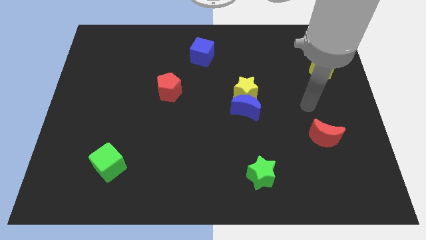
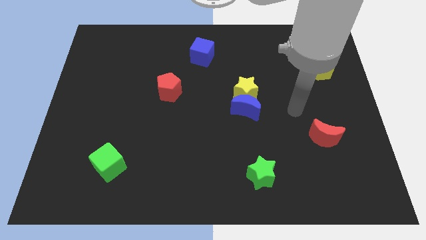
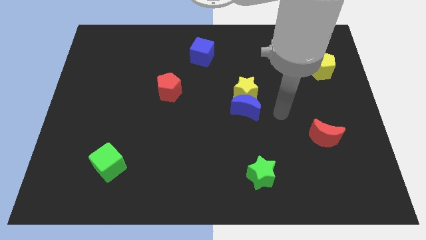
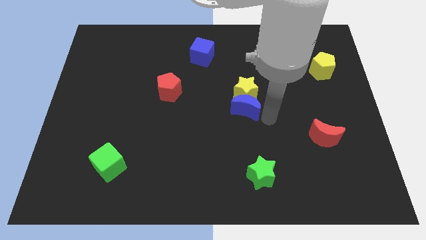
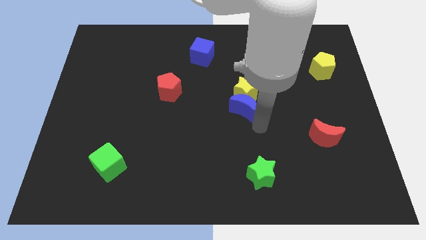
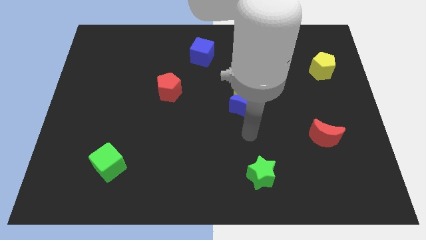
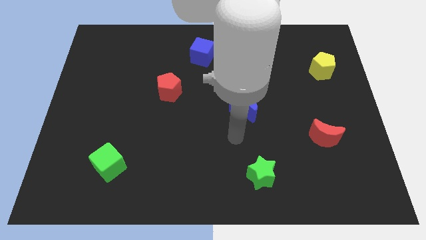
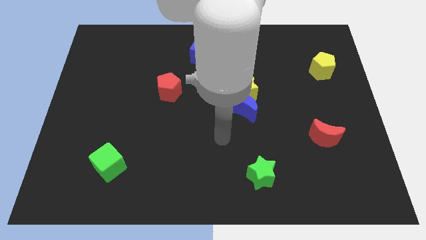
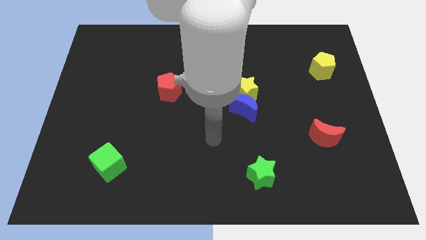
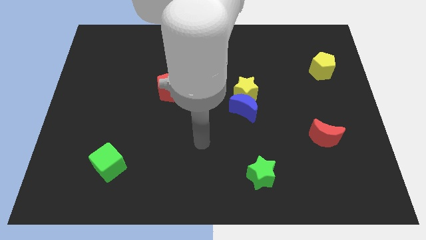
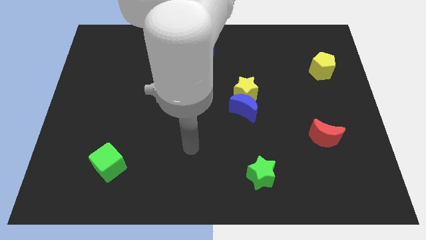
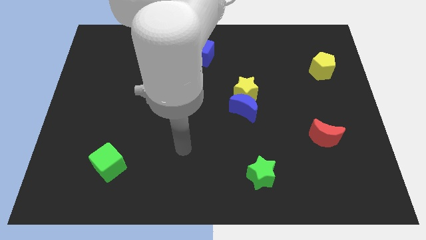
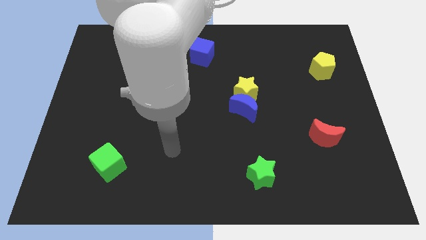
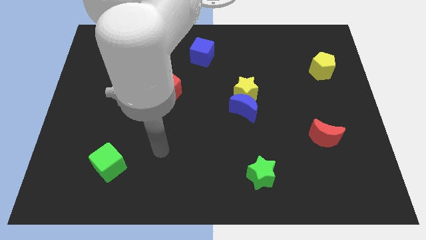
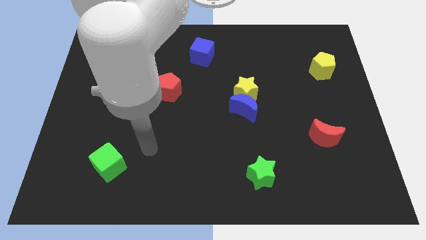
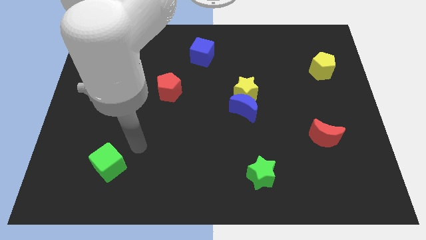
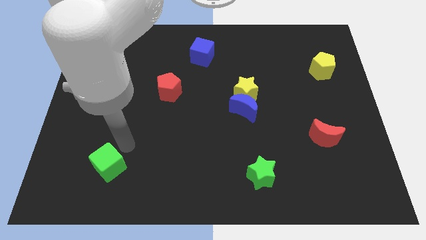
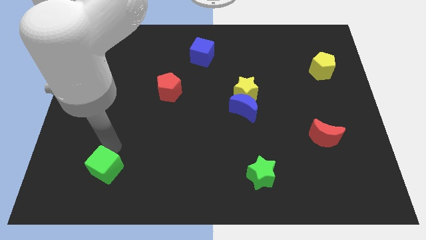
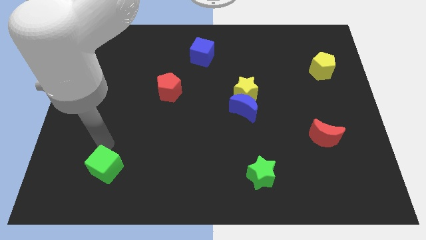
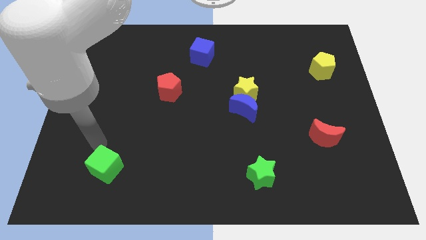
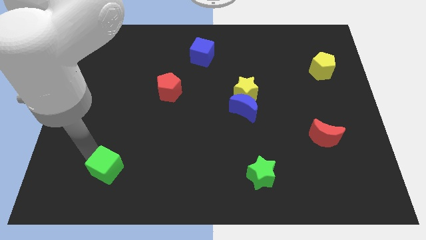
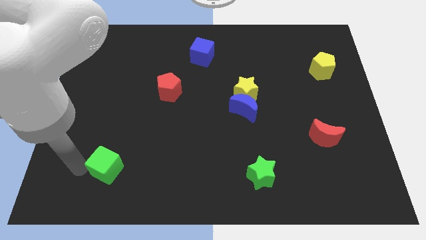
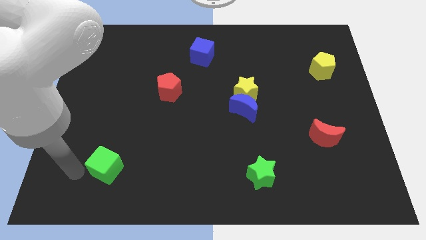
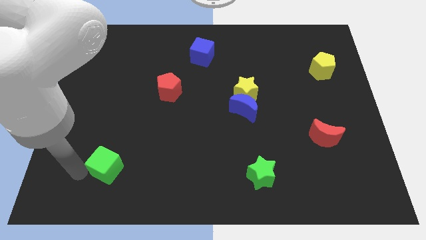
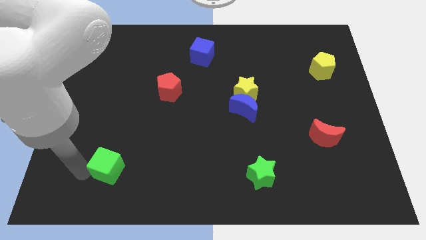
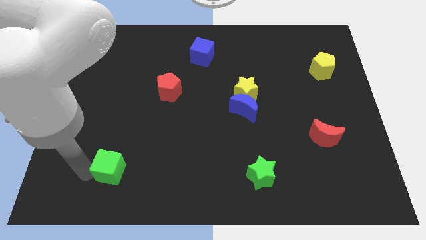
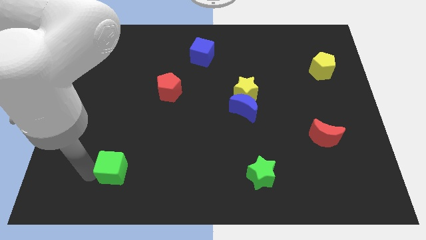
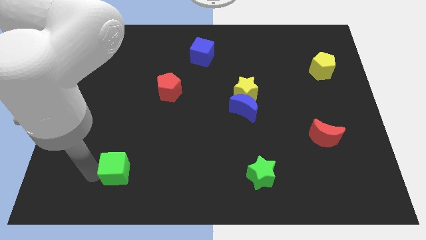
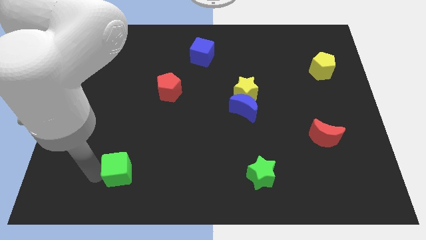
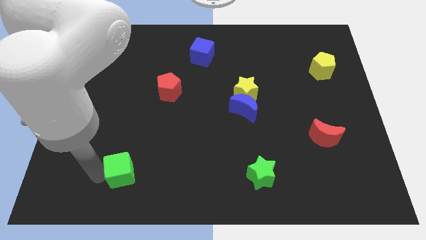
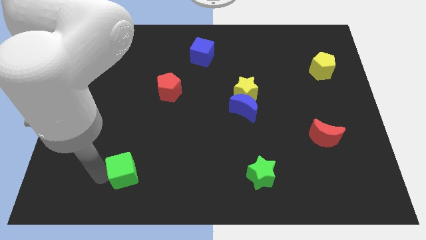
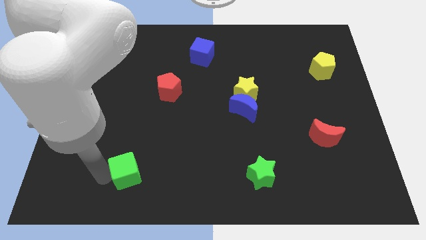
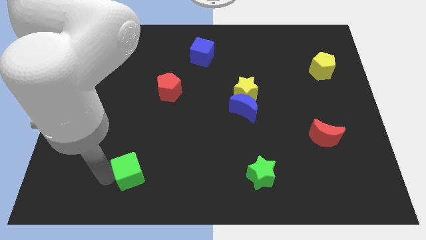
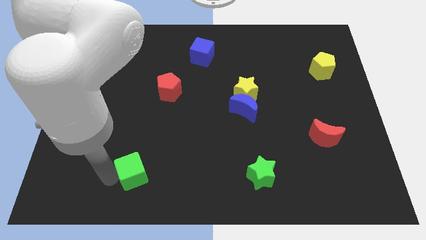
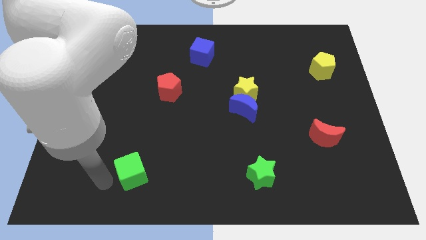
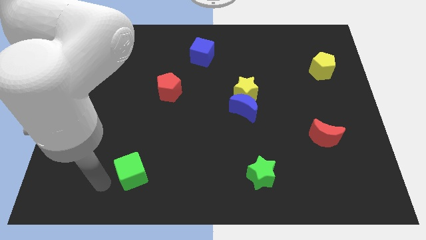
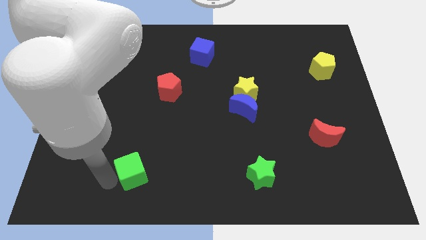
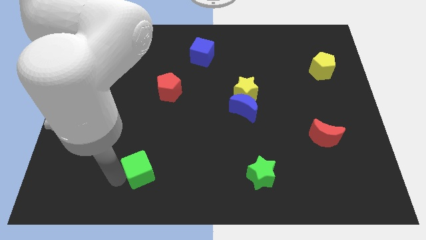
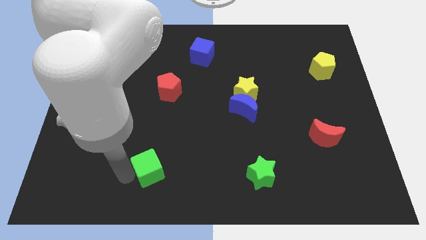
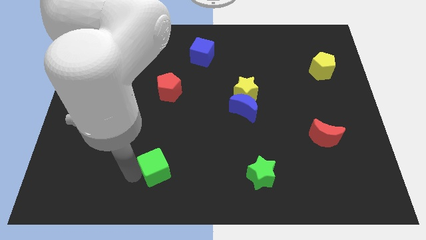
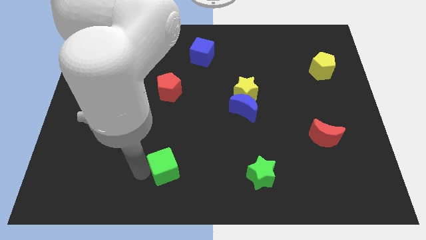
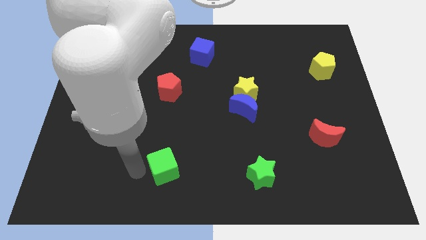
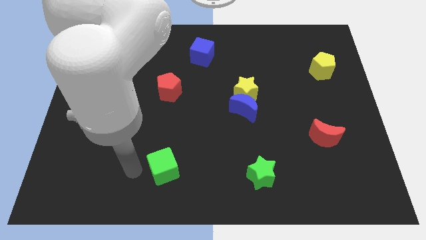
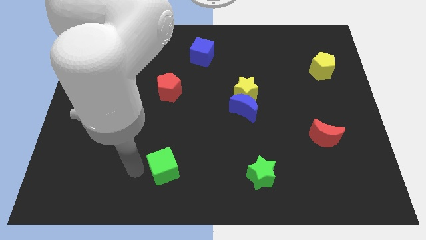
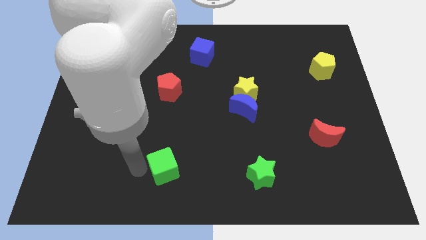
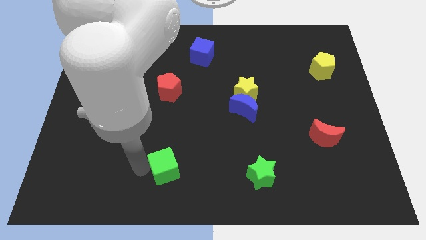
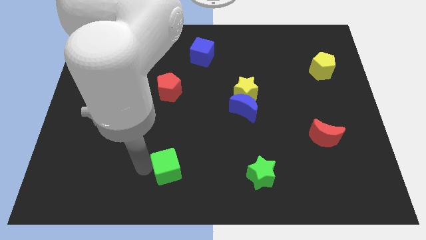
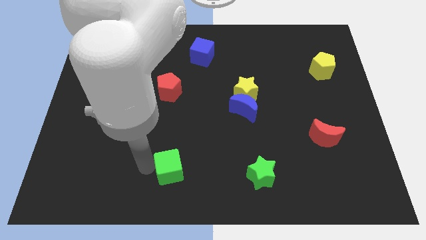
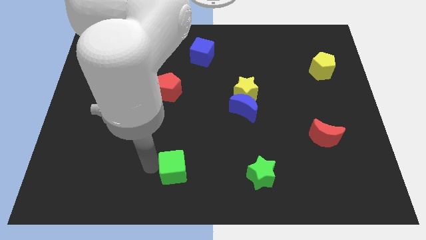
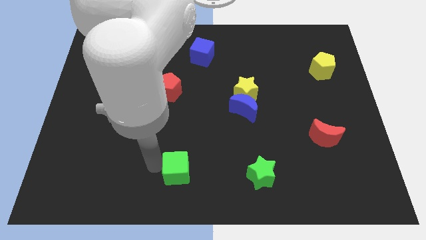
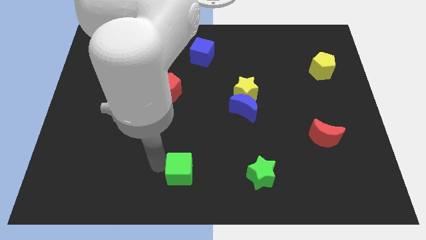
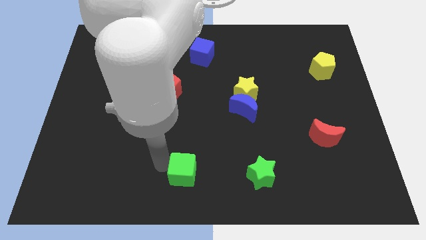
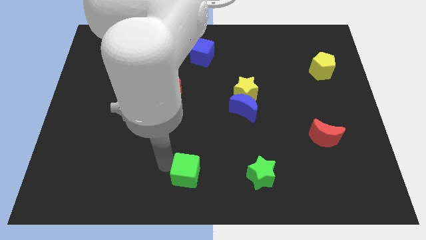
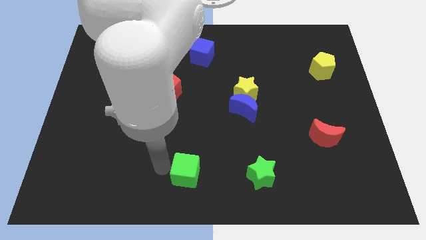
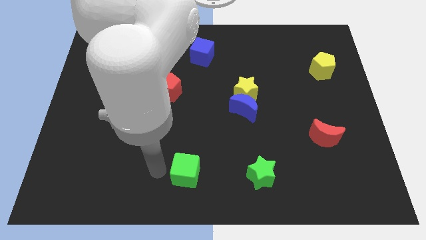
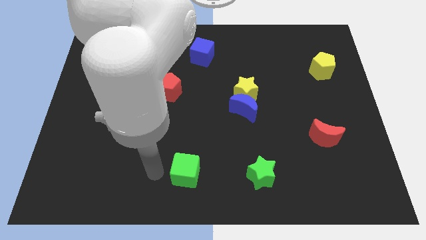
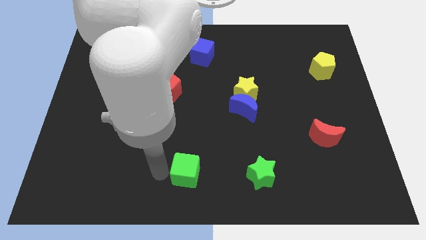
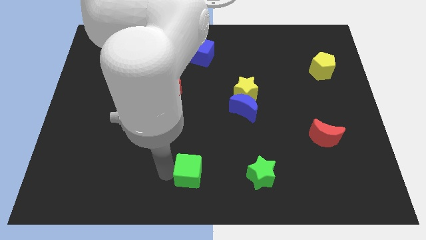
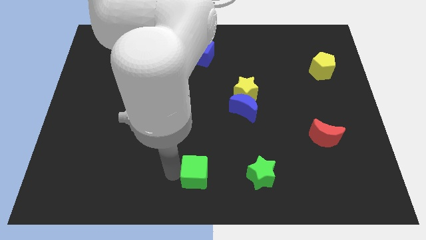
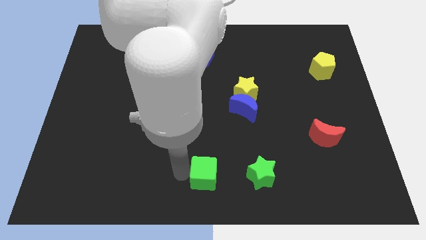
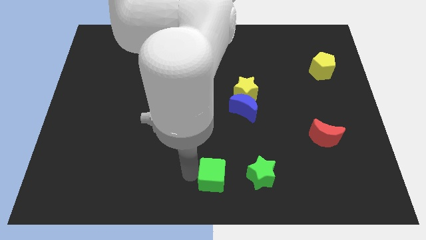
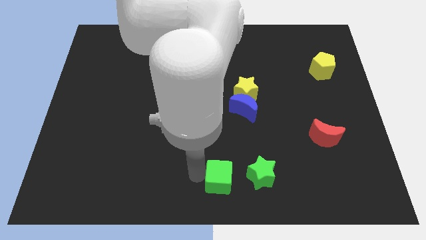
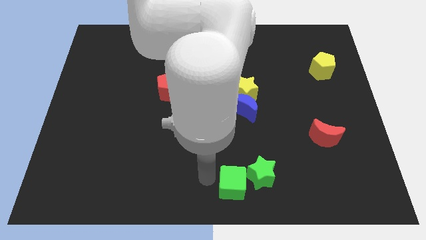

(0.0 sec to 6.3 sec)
move the green cube to the green star

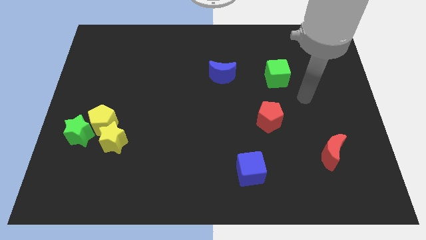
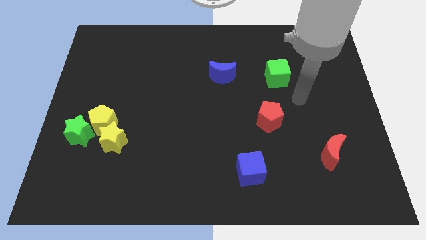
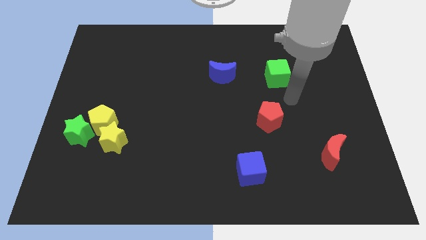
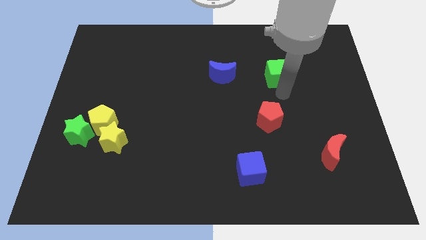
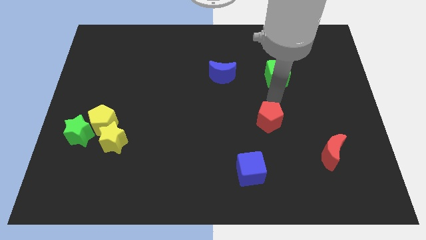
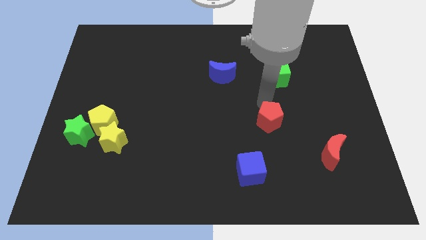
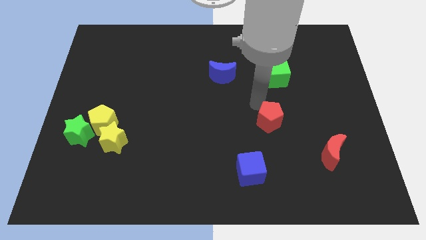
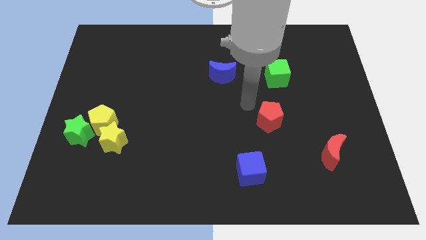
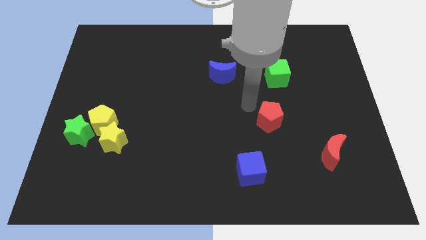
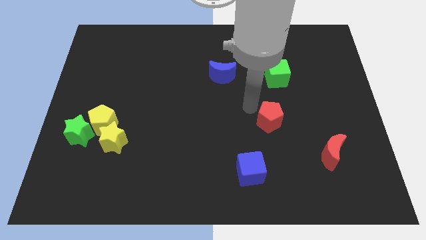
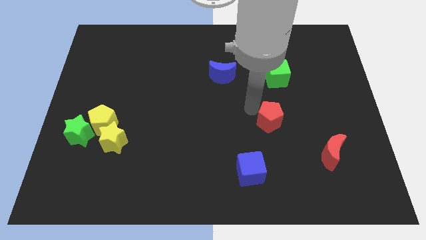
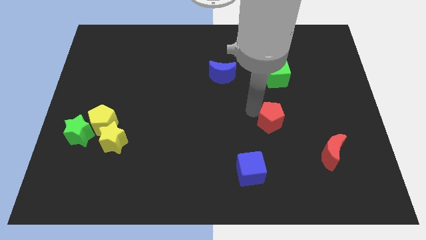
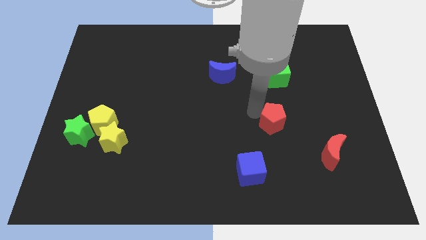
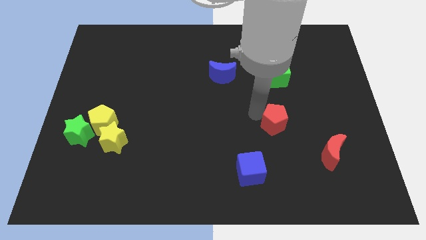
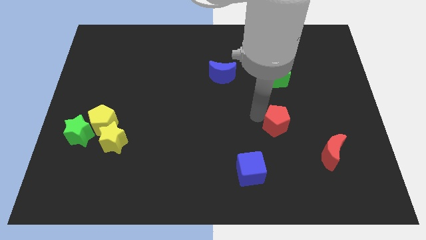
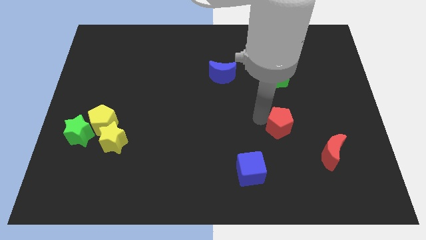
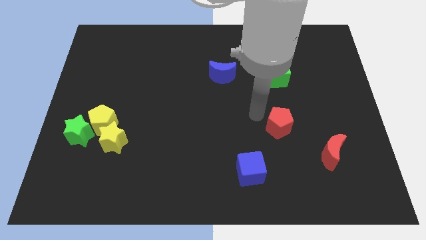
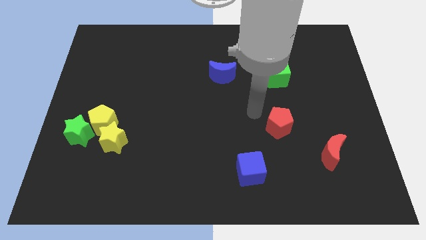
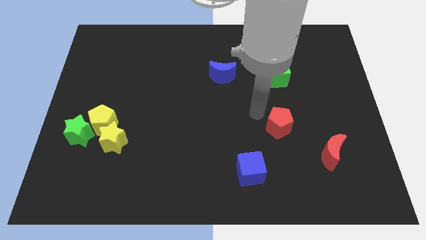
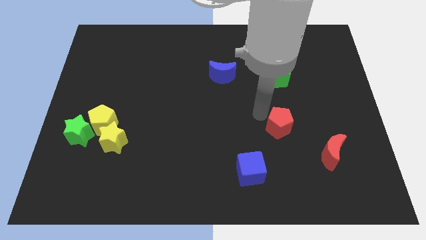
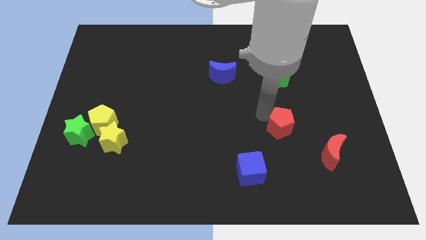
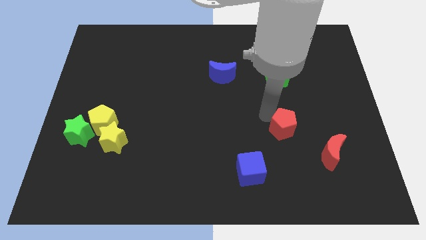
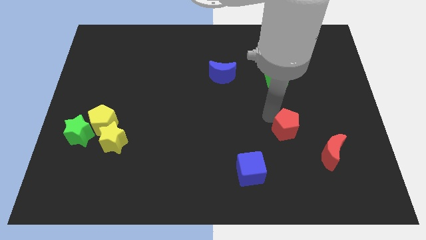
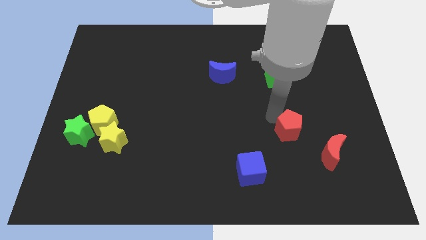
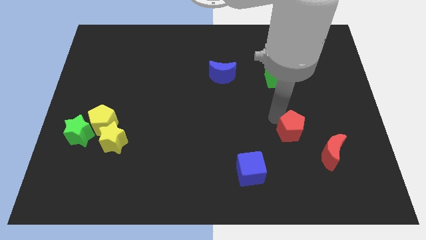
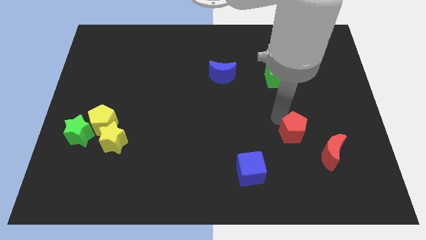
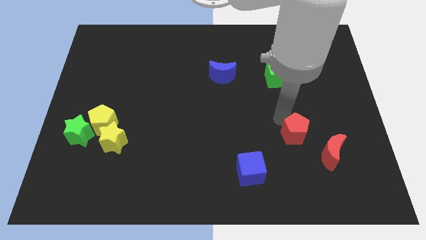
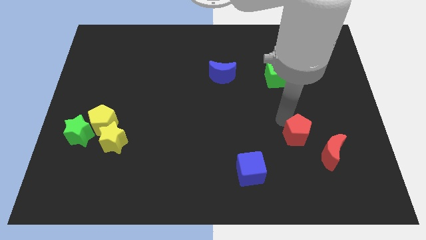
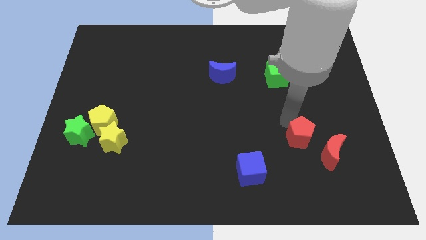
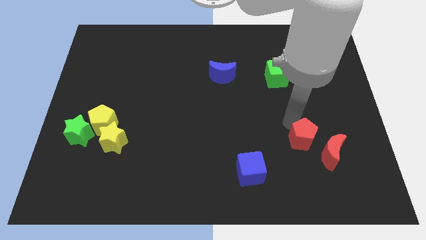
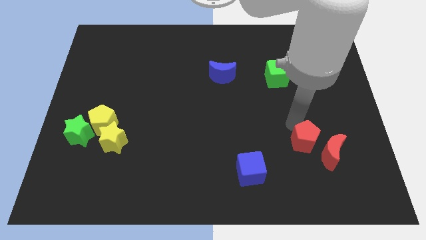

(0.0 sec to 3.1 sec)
slide the red pentagon close to the red moon
